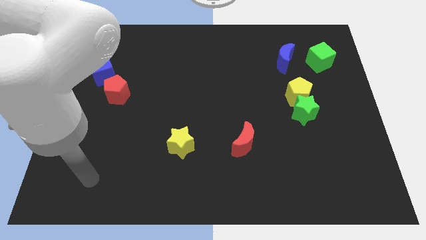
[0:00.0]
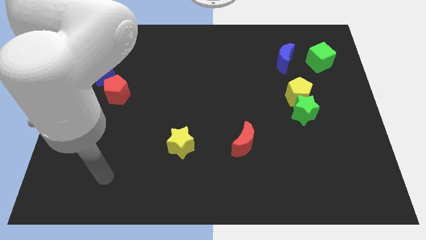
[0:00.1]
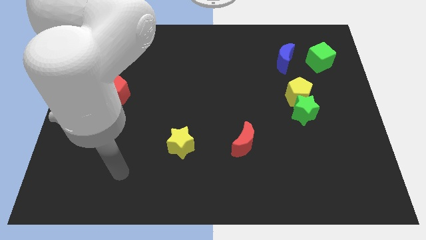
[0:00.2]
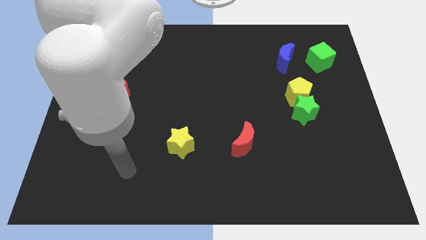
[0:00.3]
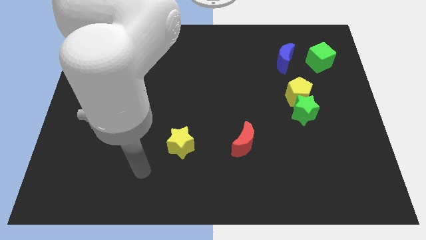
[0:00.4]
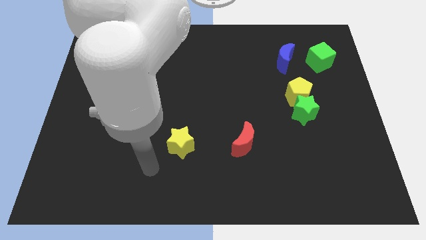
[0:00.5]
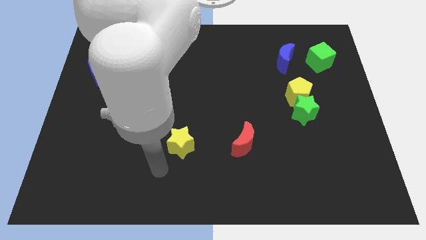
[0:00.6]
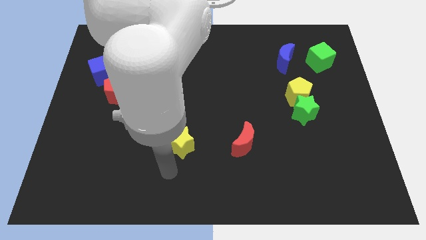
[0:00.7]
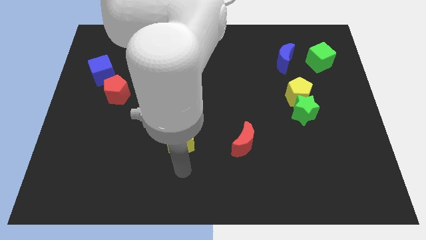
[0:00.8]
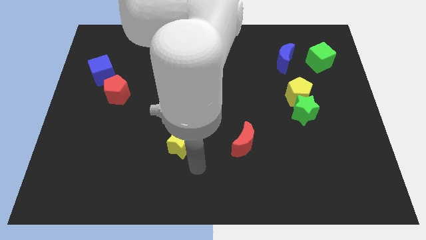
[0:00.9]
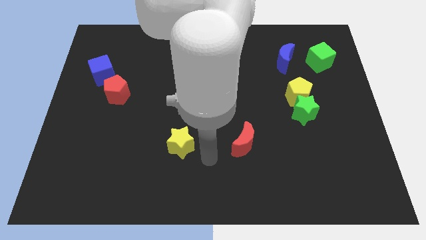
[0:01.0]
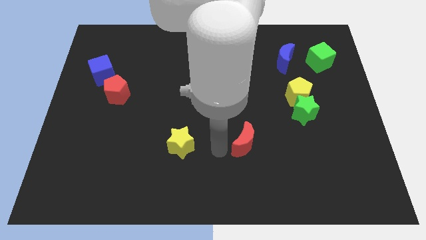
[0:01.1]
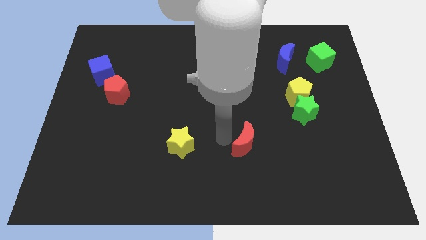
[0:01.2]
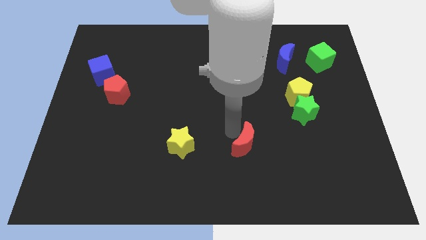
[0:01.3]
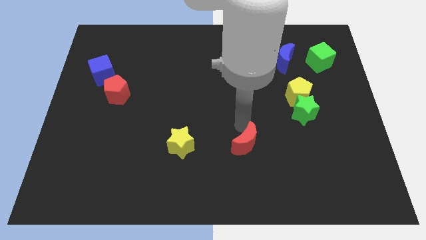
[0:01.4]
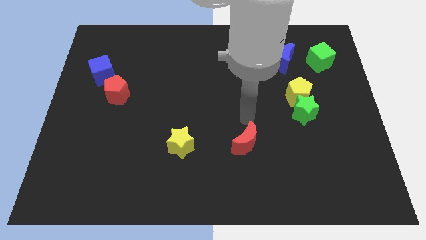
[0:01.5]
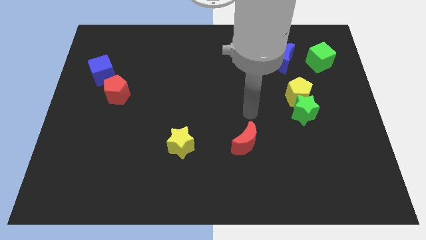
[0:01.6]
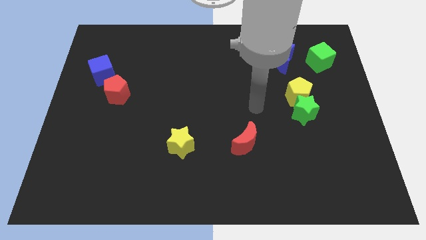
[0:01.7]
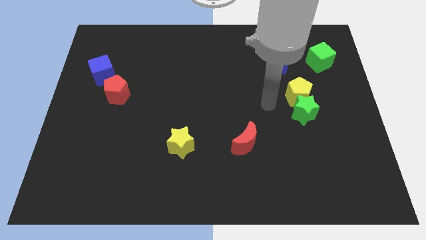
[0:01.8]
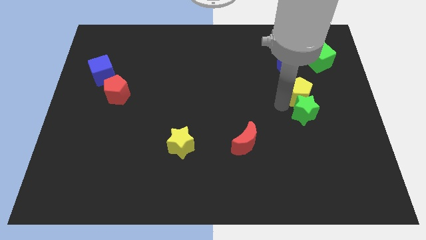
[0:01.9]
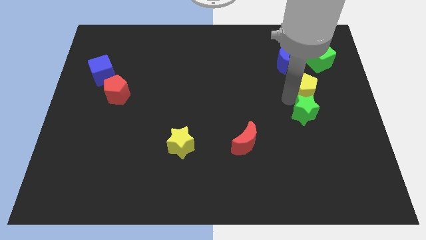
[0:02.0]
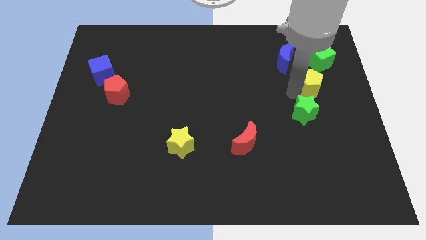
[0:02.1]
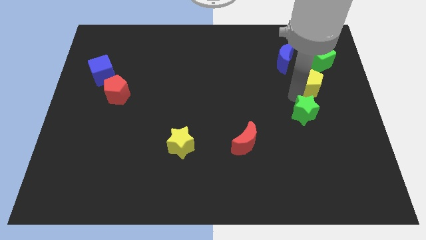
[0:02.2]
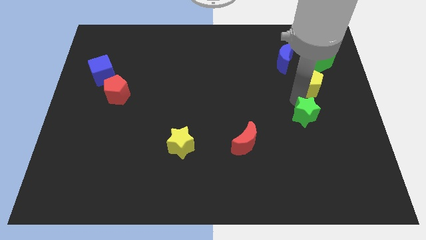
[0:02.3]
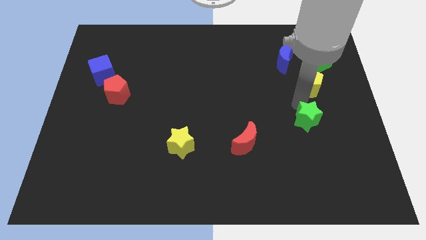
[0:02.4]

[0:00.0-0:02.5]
pull the green star apart from the yellow pentagon

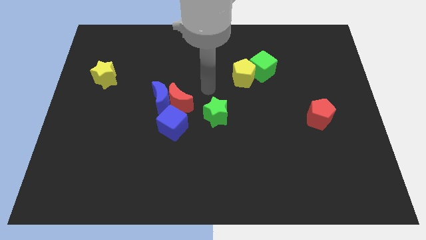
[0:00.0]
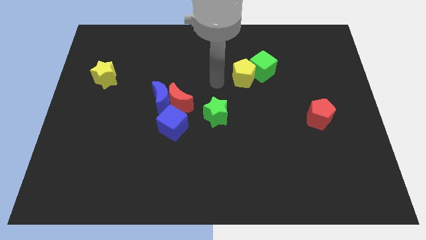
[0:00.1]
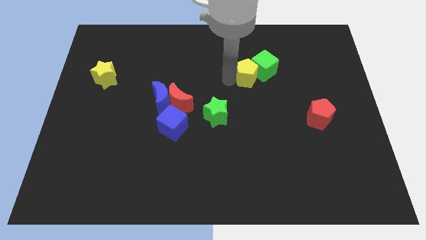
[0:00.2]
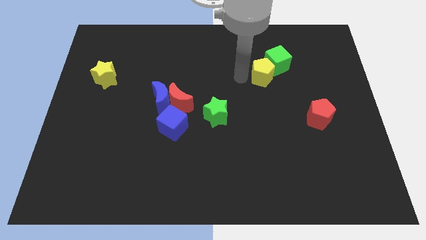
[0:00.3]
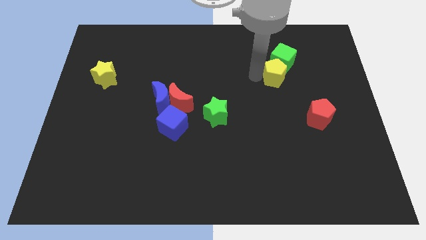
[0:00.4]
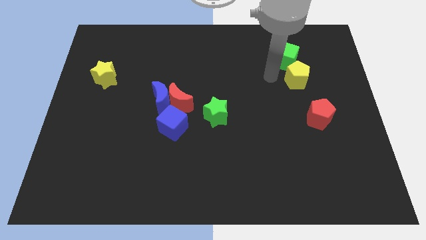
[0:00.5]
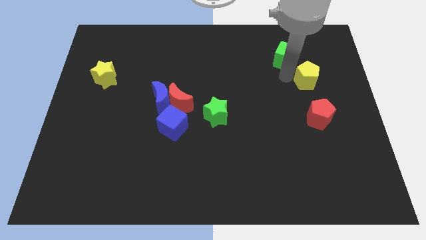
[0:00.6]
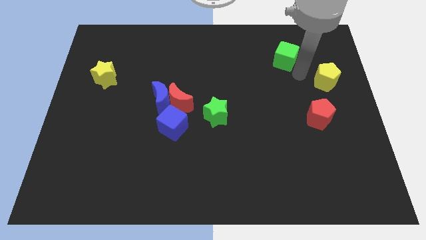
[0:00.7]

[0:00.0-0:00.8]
move the green cube away from the yellow pentagon

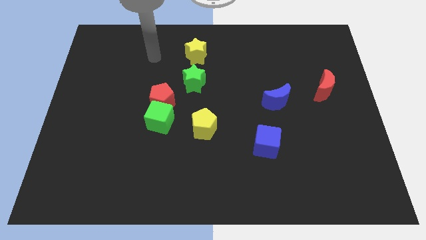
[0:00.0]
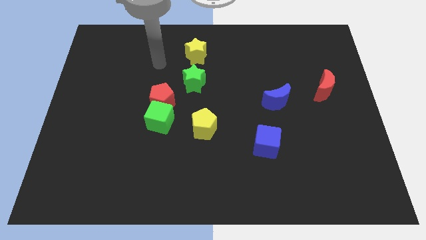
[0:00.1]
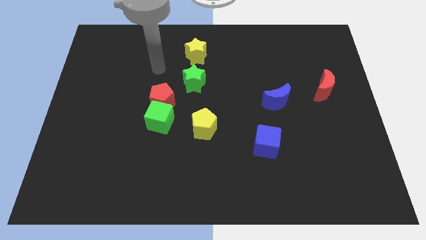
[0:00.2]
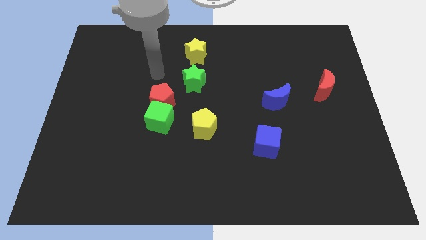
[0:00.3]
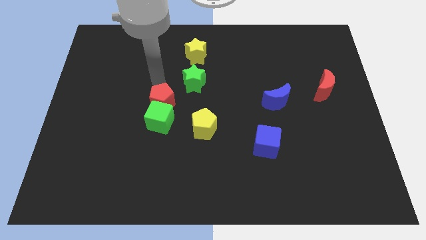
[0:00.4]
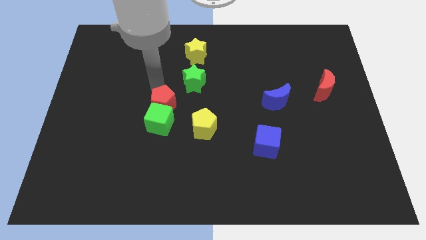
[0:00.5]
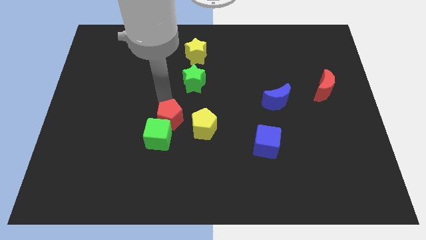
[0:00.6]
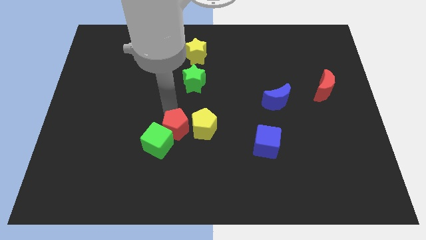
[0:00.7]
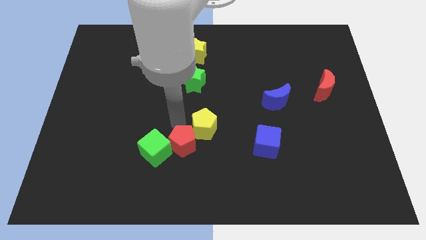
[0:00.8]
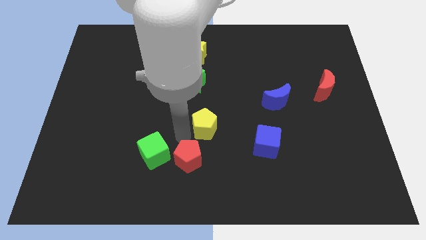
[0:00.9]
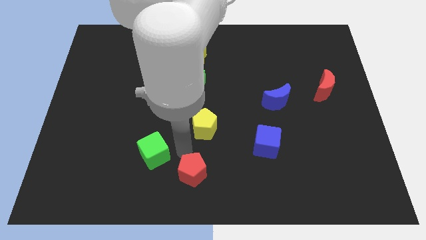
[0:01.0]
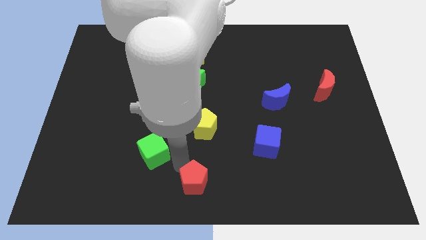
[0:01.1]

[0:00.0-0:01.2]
separate the green cube from the red pentagon

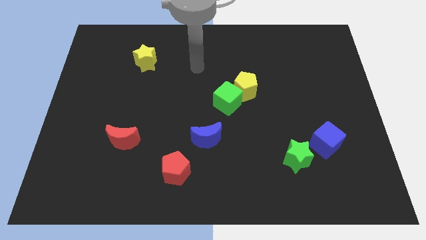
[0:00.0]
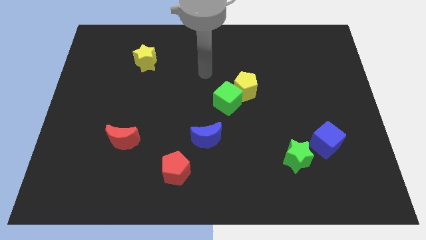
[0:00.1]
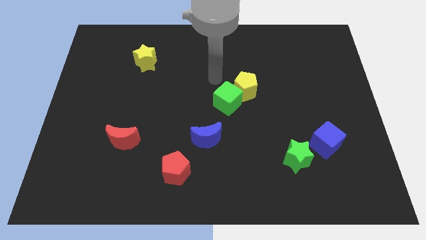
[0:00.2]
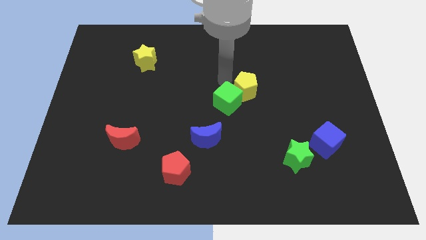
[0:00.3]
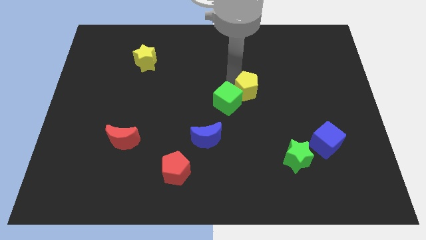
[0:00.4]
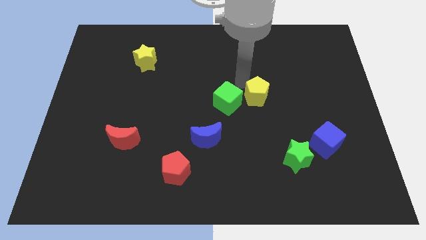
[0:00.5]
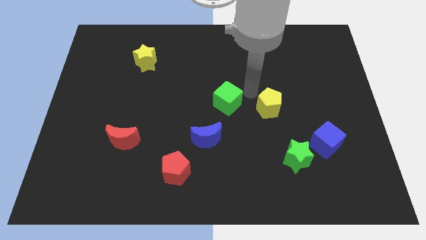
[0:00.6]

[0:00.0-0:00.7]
pull the green cube apart from the yellow pentagon

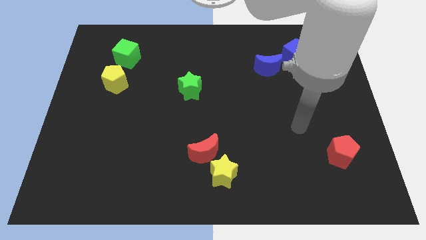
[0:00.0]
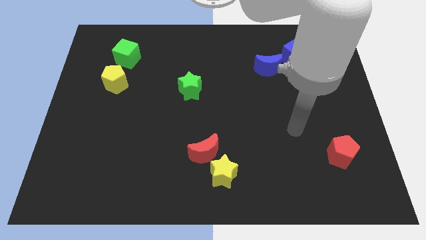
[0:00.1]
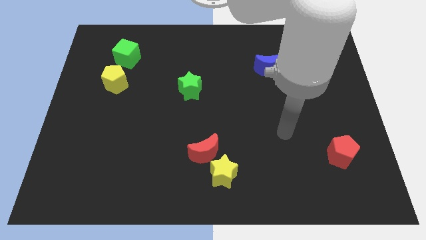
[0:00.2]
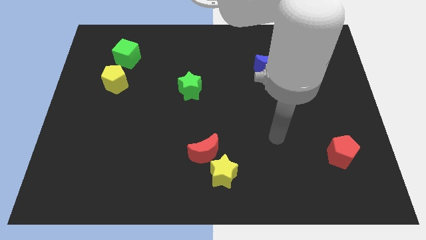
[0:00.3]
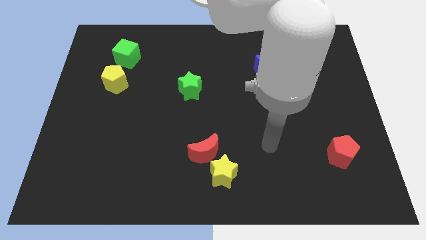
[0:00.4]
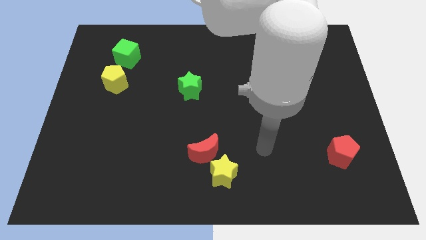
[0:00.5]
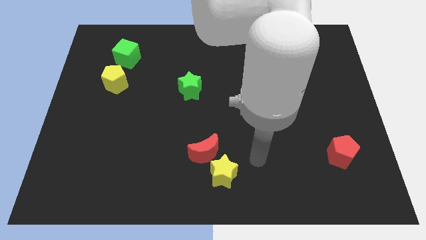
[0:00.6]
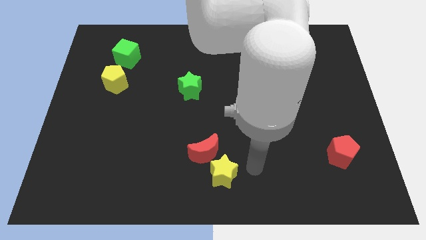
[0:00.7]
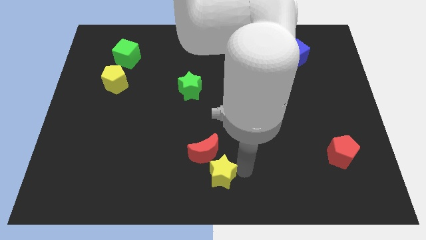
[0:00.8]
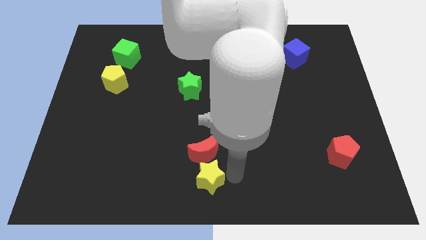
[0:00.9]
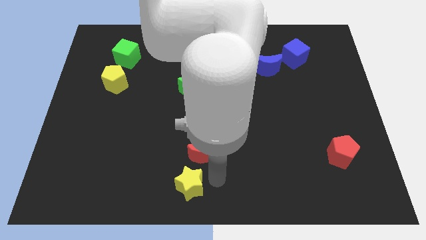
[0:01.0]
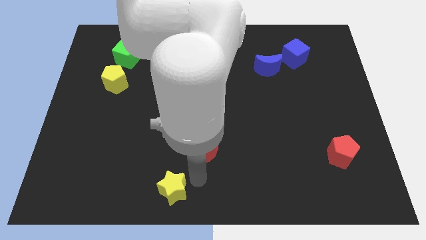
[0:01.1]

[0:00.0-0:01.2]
move the red moon away from the yellow star

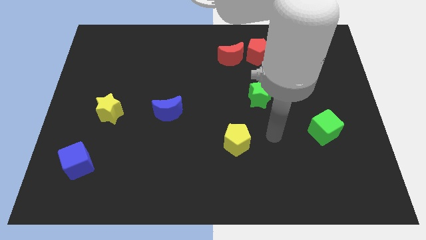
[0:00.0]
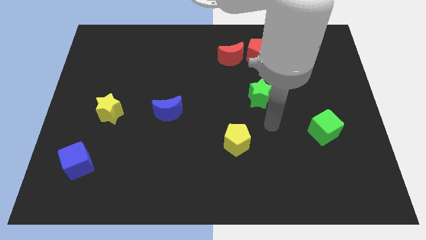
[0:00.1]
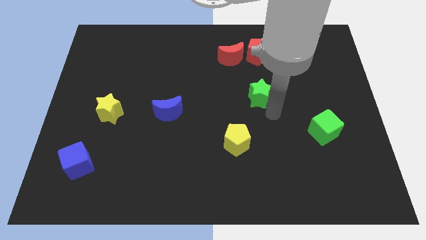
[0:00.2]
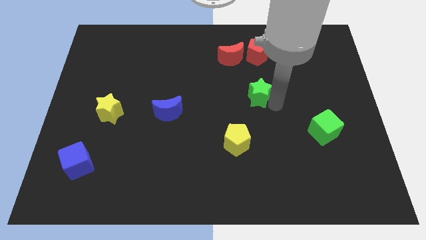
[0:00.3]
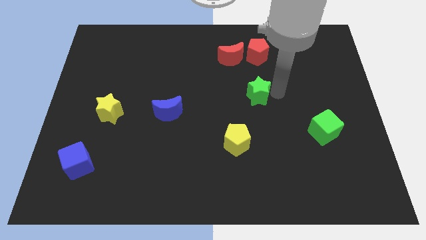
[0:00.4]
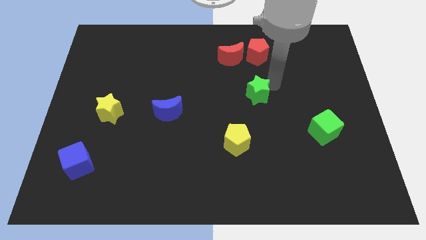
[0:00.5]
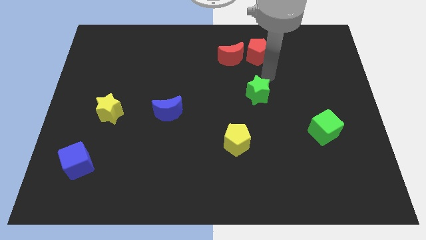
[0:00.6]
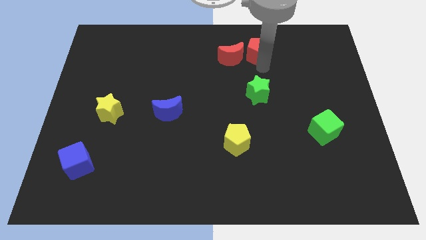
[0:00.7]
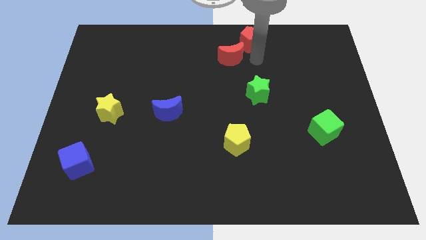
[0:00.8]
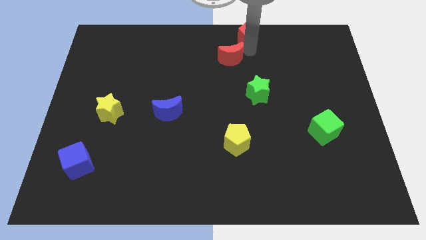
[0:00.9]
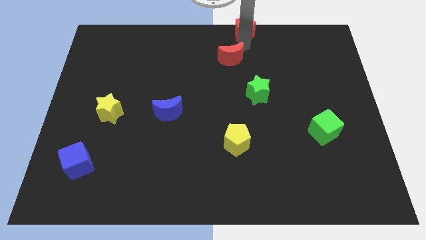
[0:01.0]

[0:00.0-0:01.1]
separate the red moon from the red pentagon

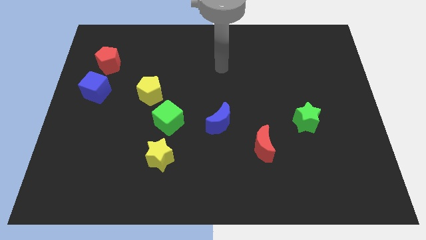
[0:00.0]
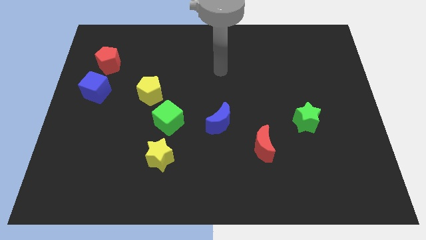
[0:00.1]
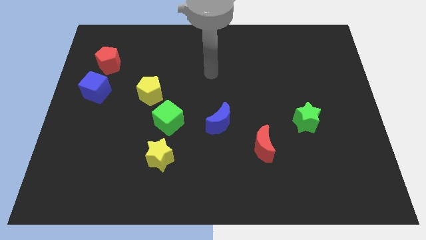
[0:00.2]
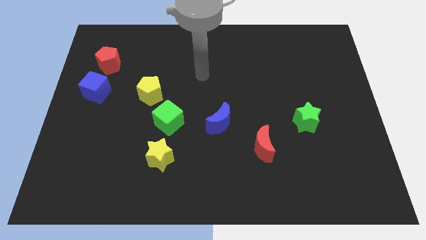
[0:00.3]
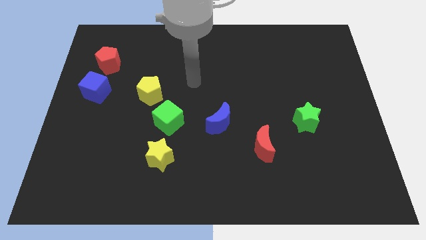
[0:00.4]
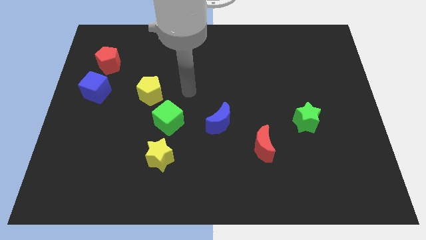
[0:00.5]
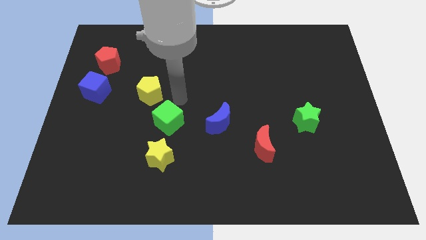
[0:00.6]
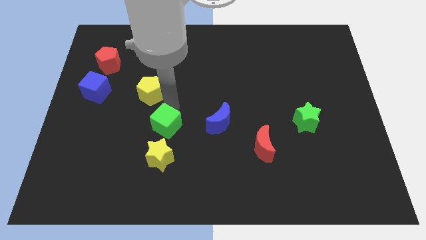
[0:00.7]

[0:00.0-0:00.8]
separate the yellow pentagon from the green cube

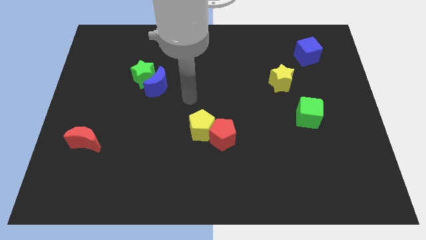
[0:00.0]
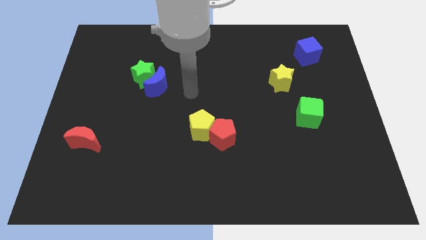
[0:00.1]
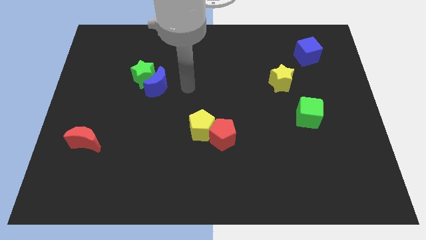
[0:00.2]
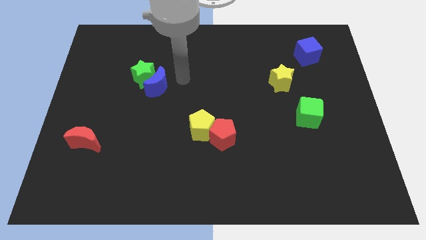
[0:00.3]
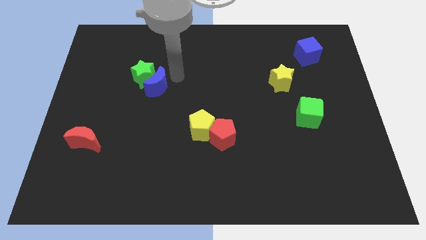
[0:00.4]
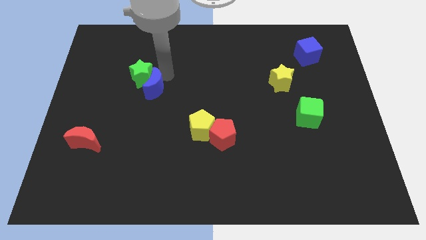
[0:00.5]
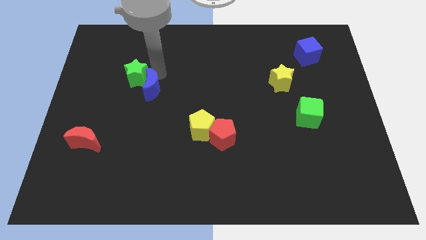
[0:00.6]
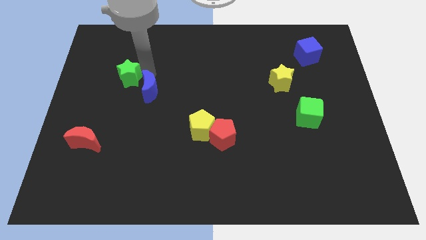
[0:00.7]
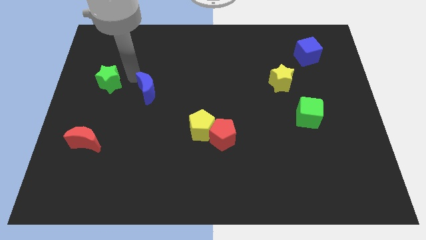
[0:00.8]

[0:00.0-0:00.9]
move the blue moon away from the green star
